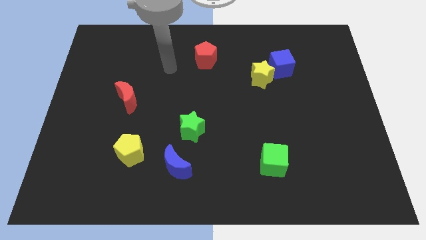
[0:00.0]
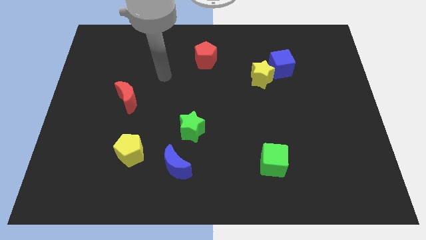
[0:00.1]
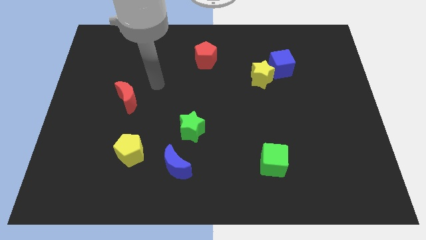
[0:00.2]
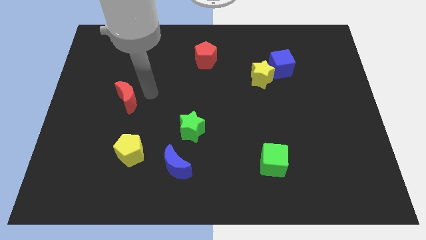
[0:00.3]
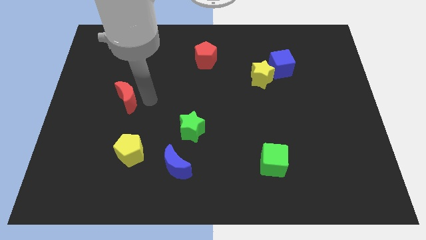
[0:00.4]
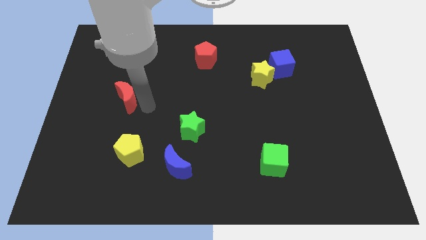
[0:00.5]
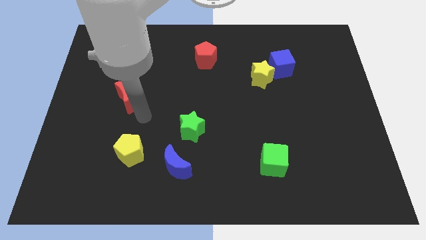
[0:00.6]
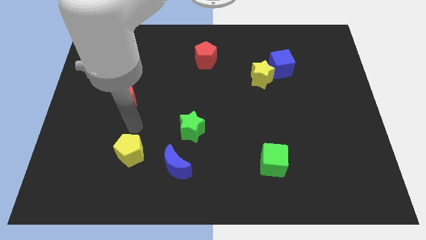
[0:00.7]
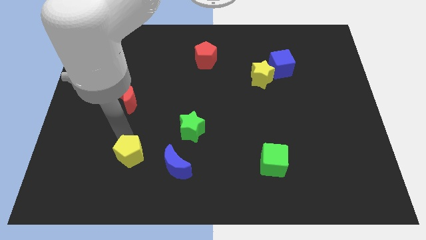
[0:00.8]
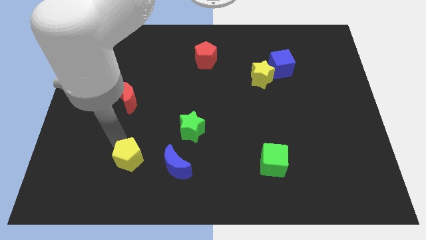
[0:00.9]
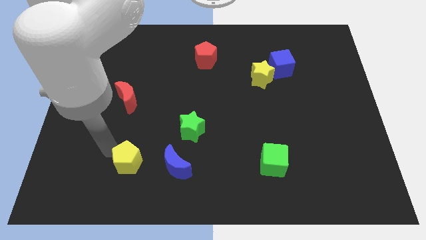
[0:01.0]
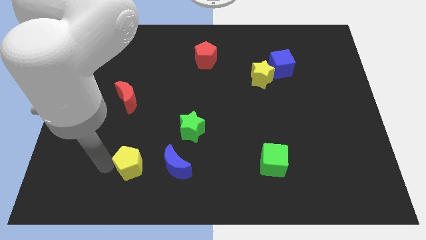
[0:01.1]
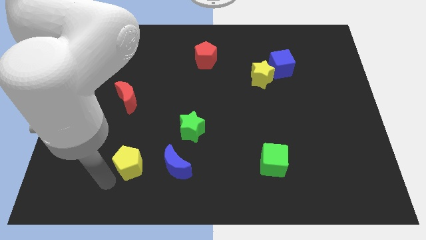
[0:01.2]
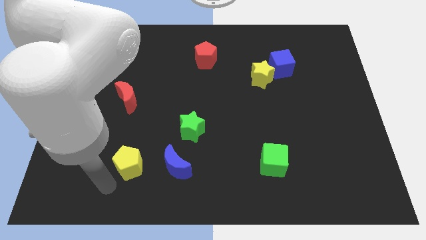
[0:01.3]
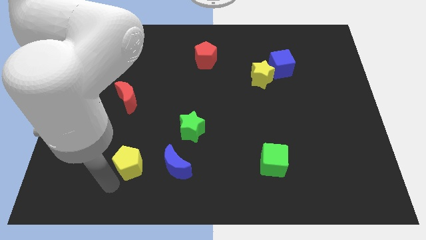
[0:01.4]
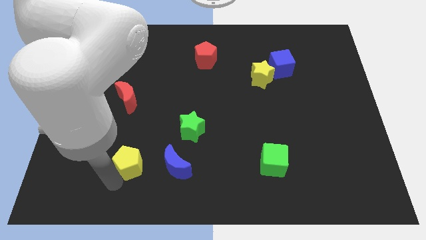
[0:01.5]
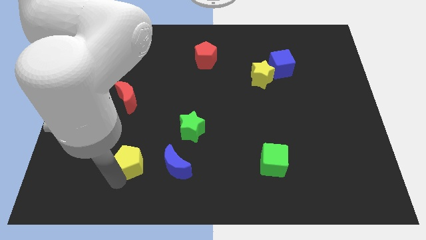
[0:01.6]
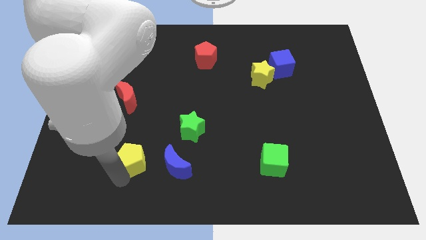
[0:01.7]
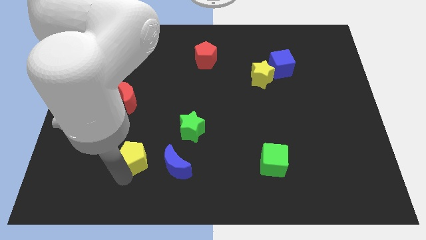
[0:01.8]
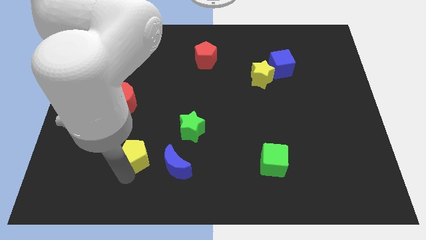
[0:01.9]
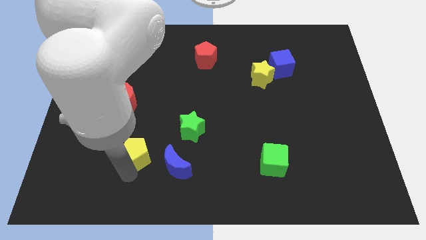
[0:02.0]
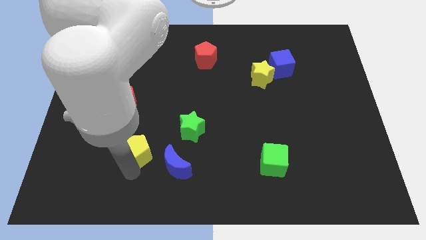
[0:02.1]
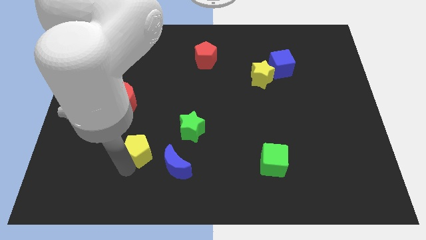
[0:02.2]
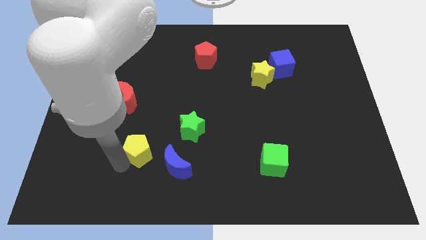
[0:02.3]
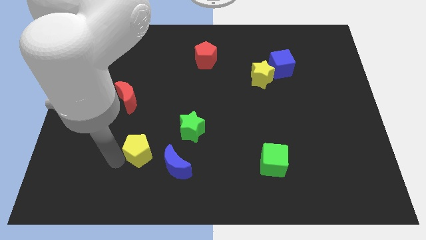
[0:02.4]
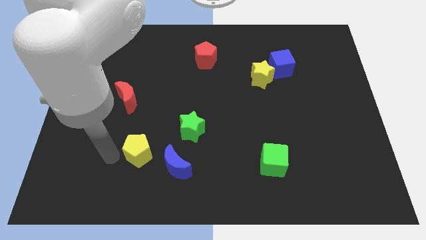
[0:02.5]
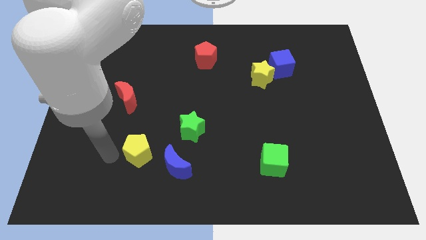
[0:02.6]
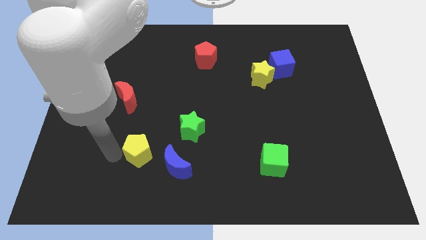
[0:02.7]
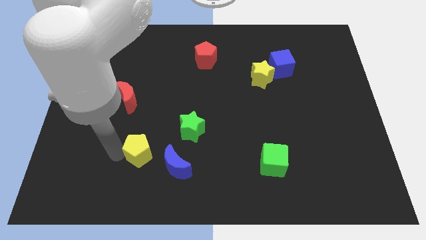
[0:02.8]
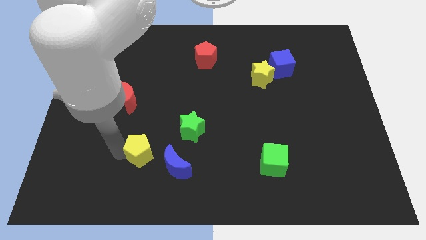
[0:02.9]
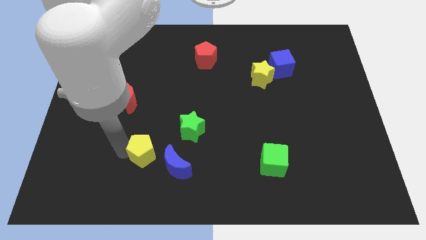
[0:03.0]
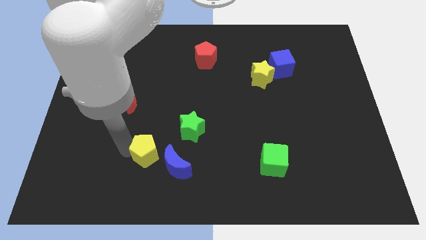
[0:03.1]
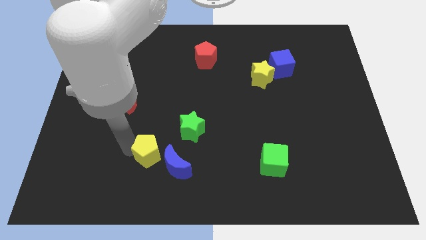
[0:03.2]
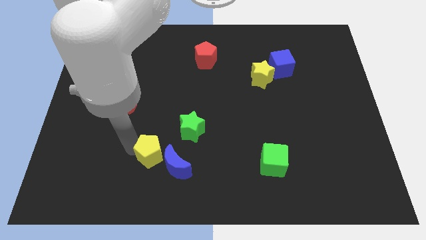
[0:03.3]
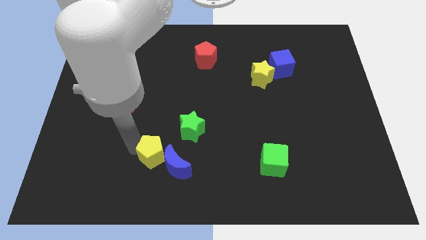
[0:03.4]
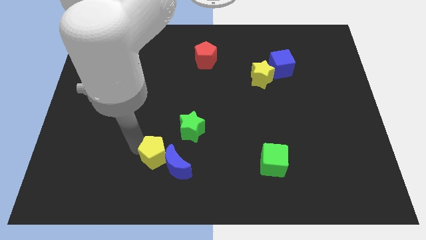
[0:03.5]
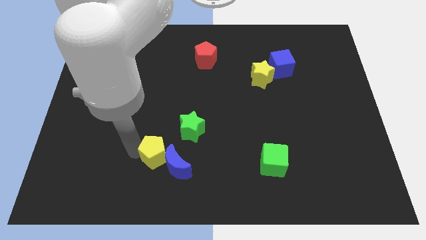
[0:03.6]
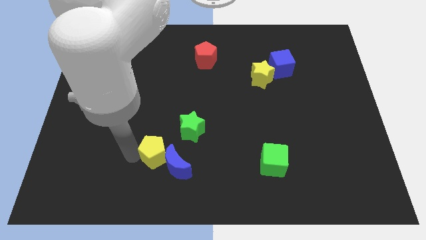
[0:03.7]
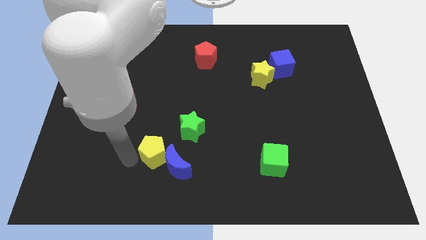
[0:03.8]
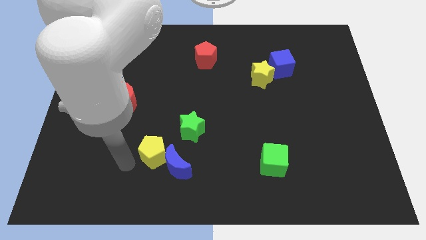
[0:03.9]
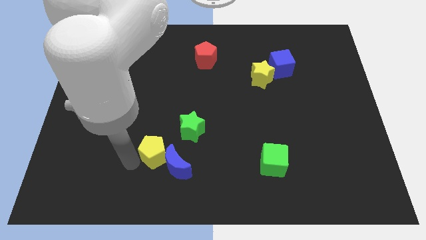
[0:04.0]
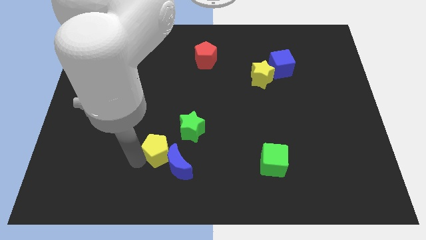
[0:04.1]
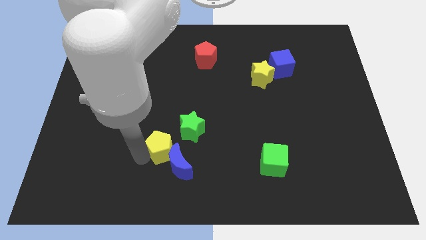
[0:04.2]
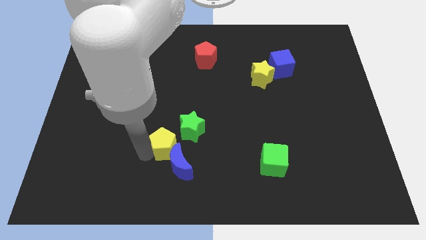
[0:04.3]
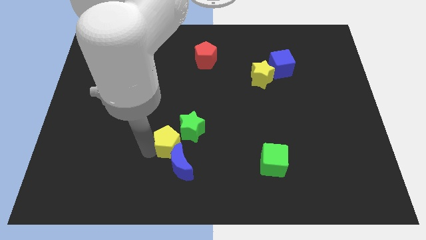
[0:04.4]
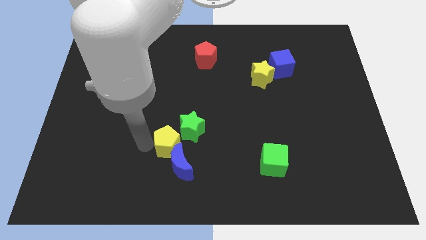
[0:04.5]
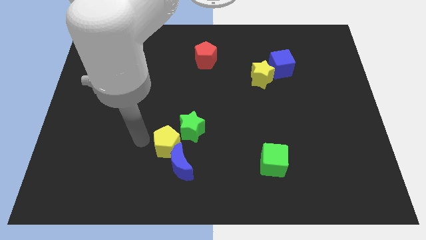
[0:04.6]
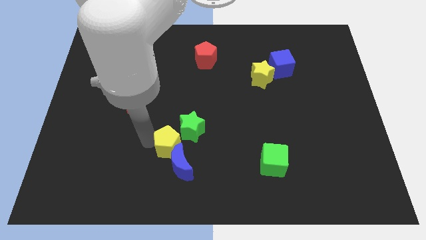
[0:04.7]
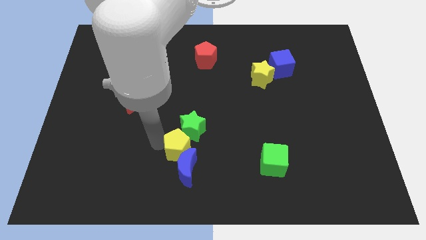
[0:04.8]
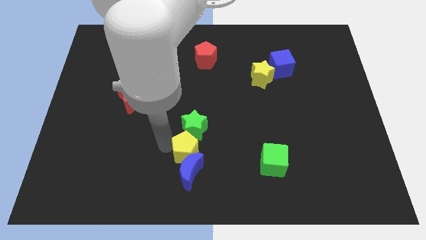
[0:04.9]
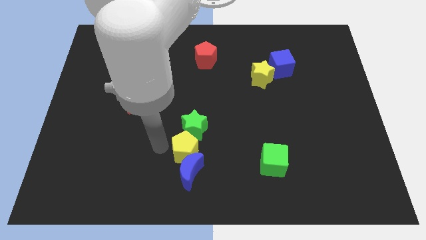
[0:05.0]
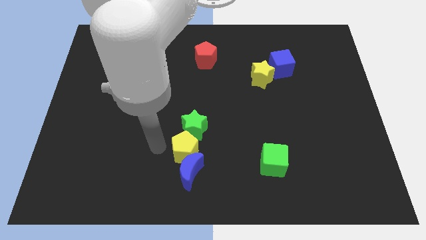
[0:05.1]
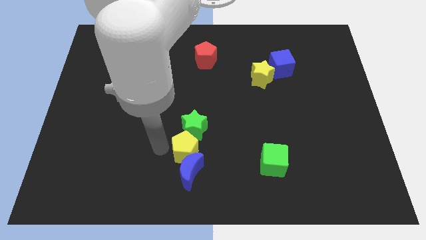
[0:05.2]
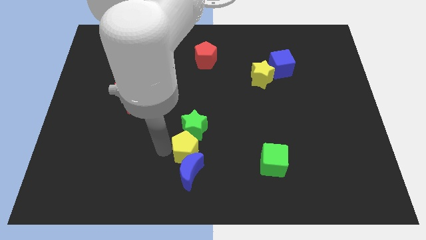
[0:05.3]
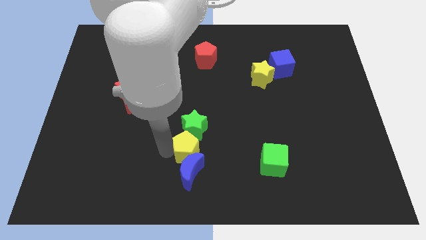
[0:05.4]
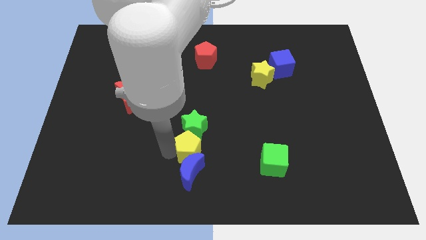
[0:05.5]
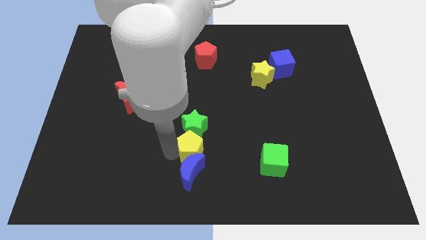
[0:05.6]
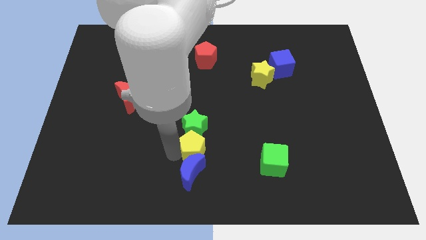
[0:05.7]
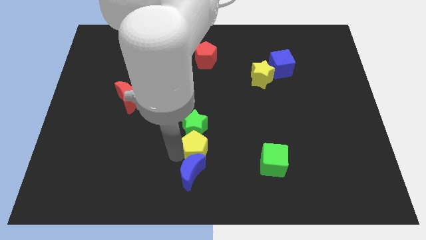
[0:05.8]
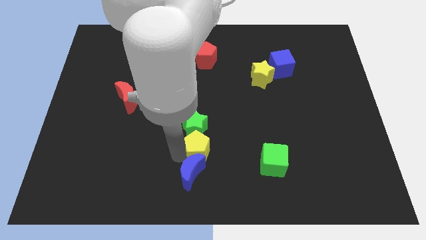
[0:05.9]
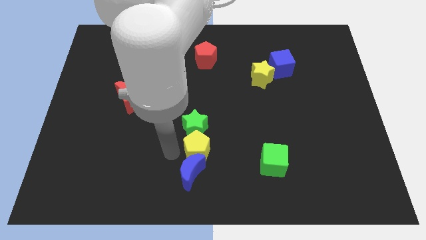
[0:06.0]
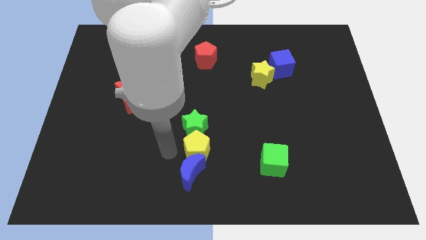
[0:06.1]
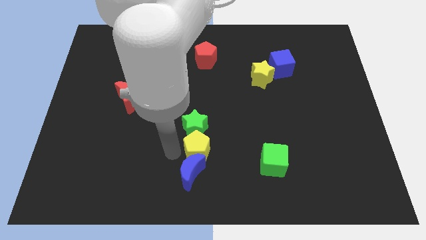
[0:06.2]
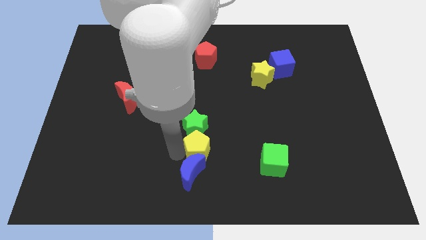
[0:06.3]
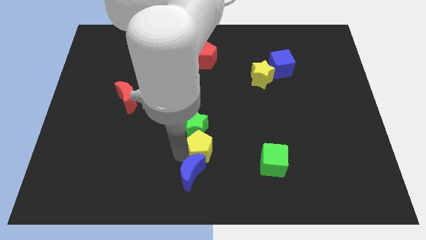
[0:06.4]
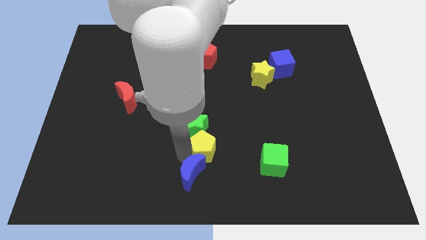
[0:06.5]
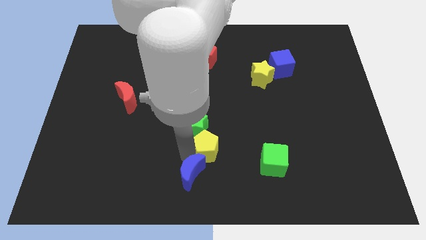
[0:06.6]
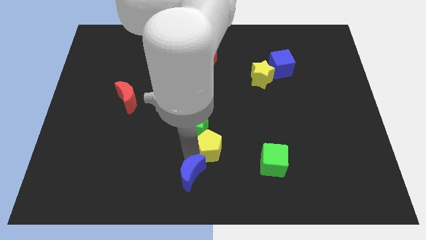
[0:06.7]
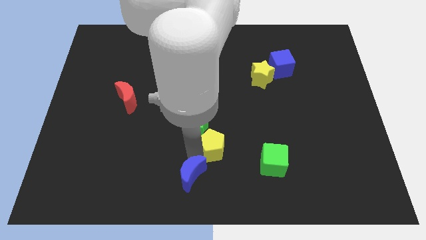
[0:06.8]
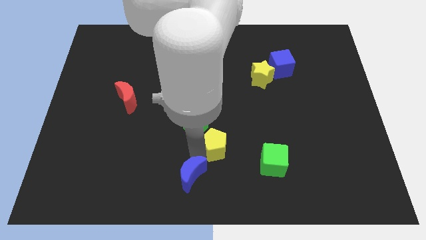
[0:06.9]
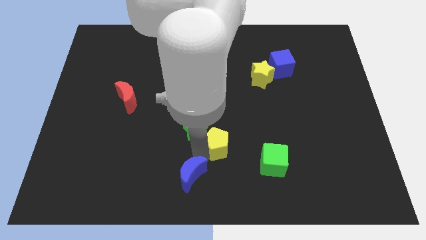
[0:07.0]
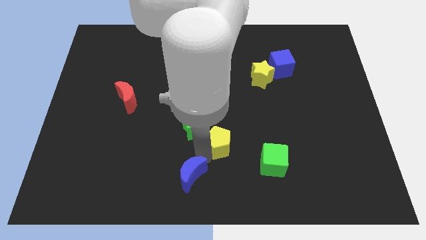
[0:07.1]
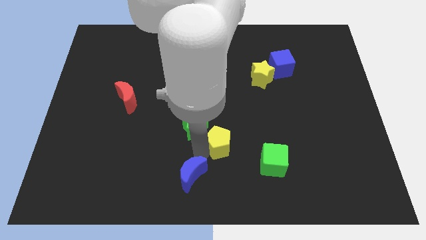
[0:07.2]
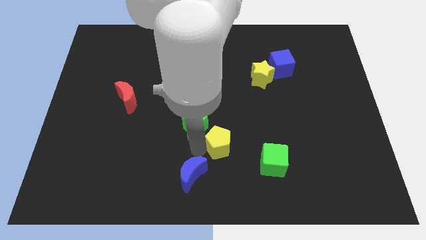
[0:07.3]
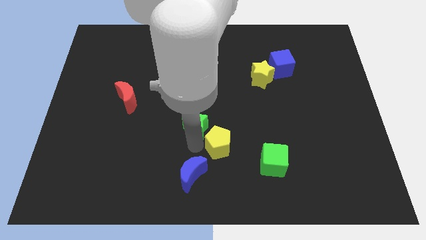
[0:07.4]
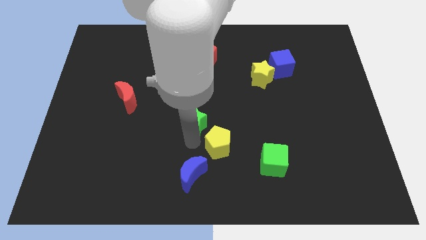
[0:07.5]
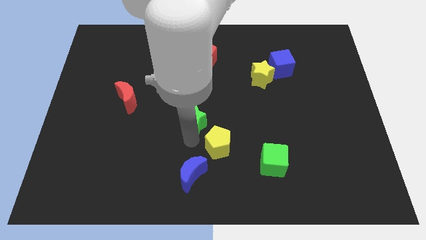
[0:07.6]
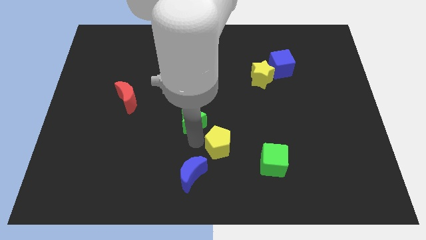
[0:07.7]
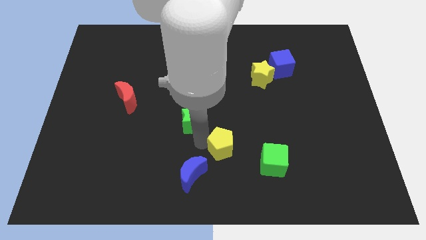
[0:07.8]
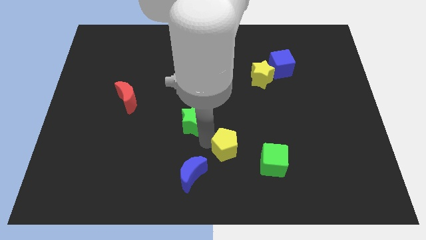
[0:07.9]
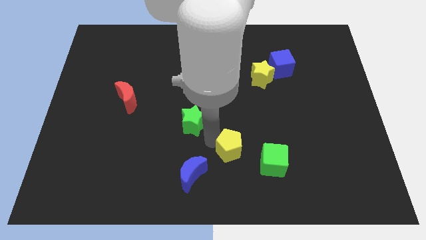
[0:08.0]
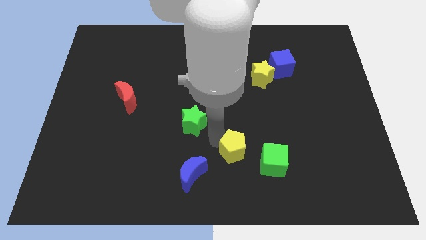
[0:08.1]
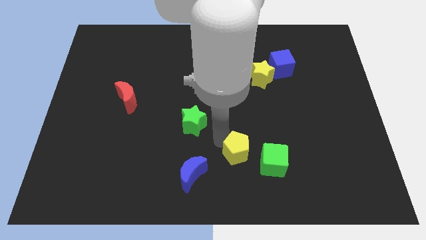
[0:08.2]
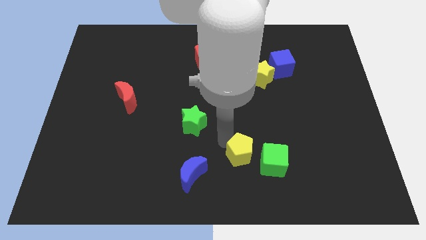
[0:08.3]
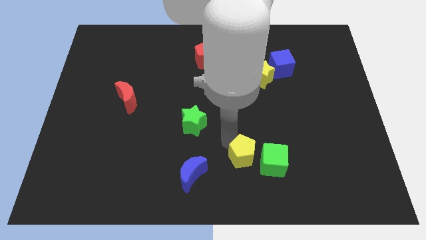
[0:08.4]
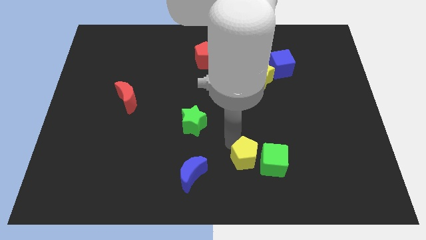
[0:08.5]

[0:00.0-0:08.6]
move the yellow pentagon to the green cube
